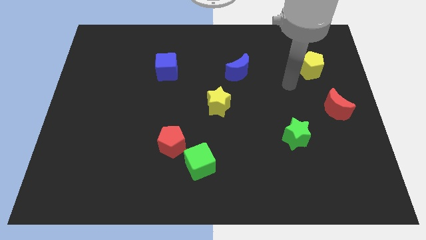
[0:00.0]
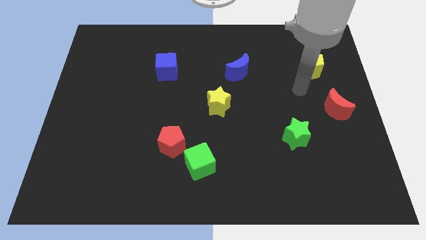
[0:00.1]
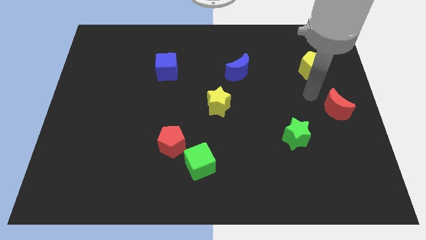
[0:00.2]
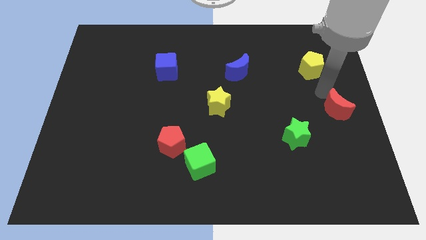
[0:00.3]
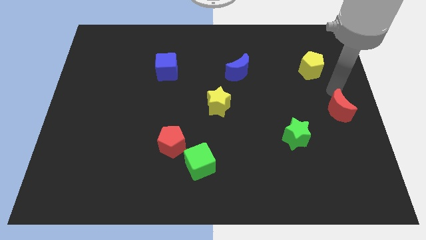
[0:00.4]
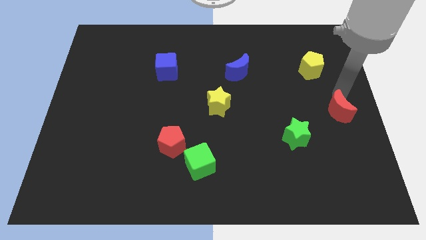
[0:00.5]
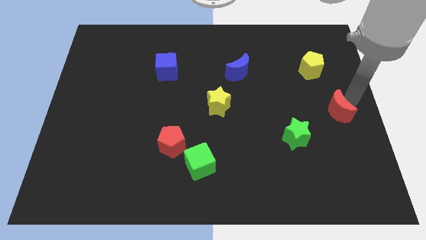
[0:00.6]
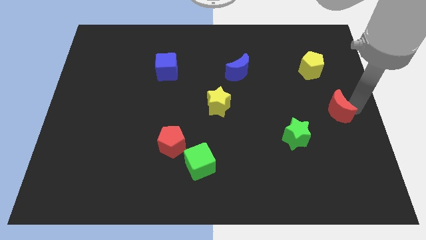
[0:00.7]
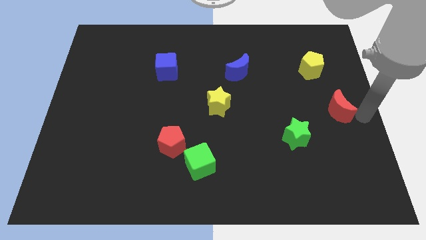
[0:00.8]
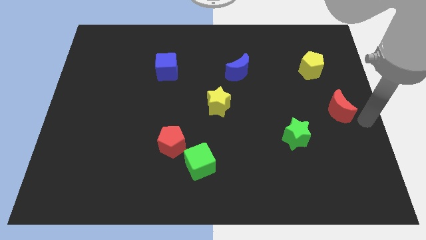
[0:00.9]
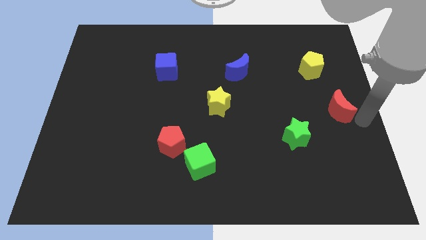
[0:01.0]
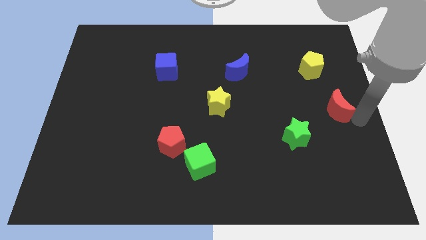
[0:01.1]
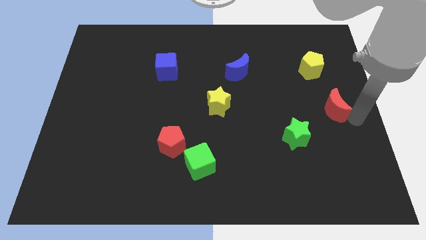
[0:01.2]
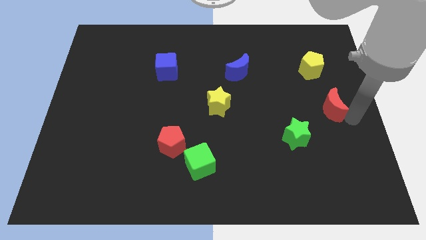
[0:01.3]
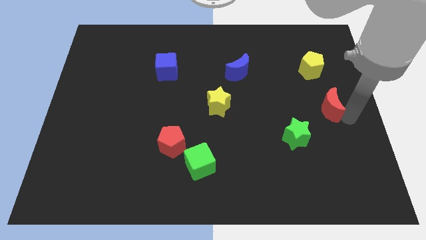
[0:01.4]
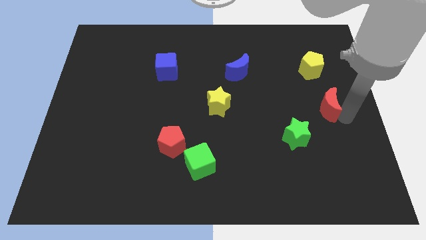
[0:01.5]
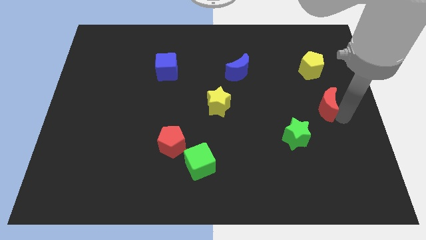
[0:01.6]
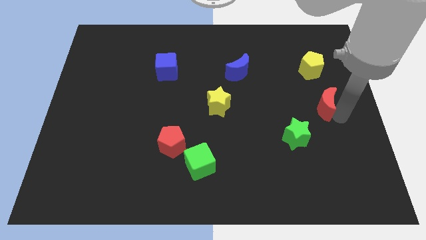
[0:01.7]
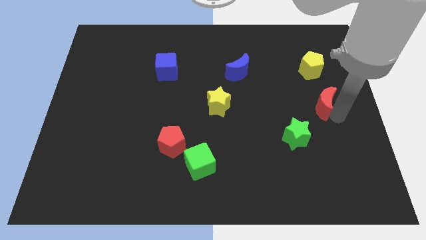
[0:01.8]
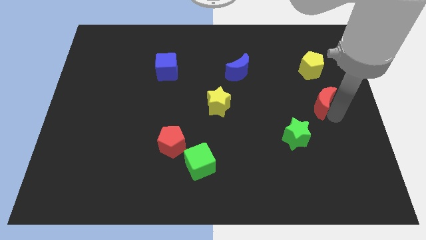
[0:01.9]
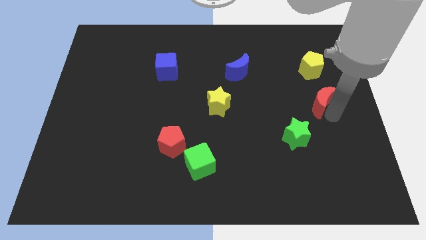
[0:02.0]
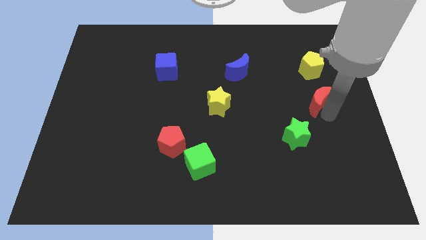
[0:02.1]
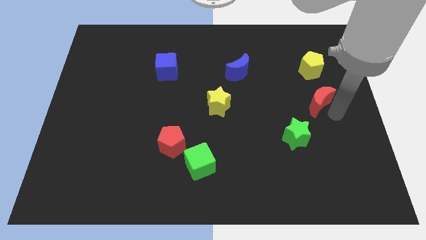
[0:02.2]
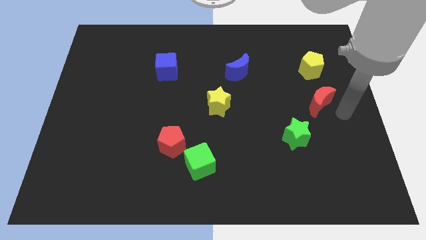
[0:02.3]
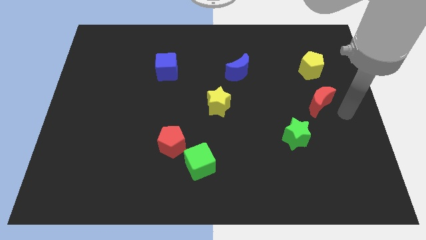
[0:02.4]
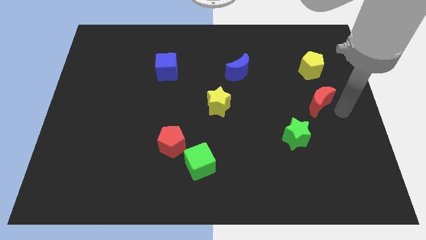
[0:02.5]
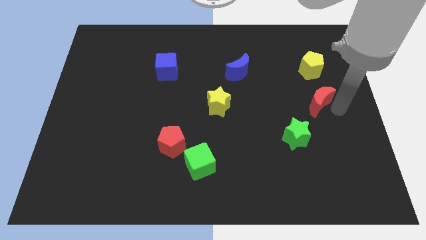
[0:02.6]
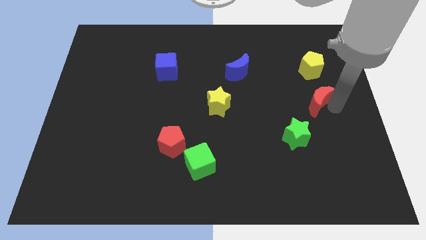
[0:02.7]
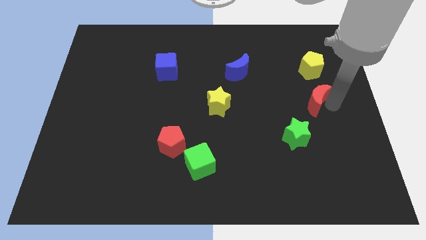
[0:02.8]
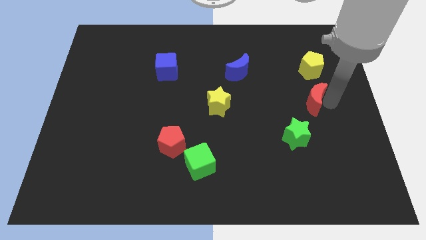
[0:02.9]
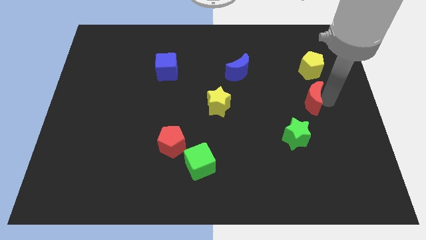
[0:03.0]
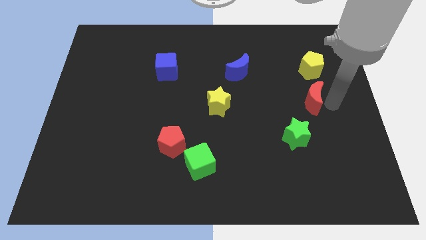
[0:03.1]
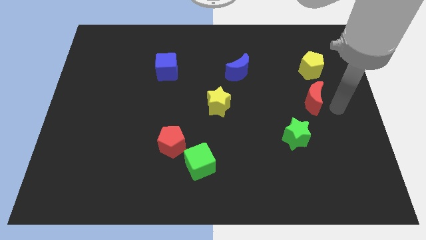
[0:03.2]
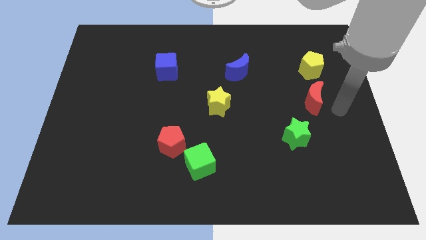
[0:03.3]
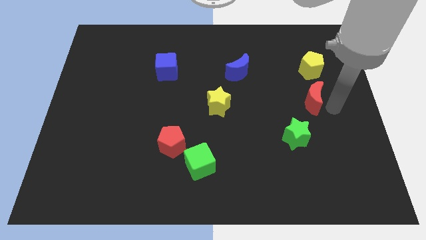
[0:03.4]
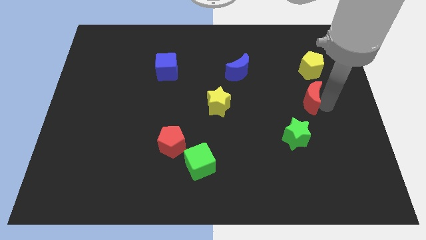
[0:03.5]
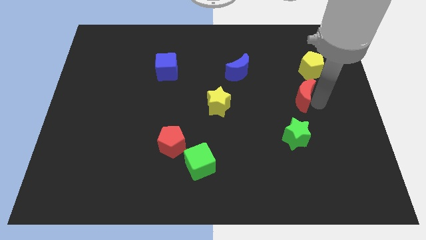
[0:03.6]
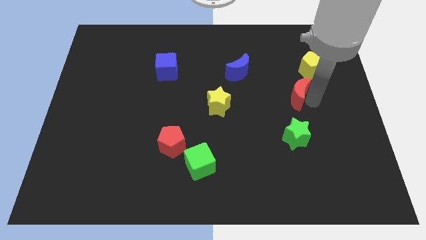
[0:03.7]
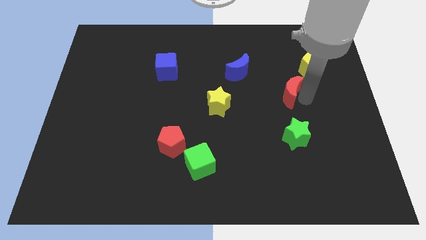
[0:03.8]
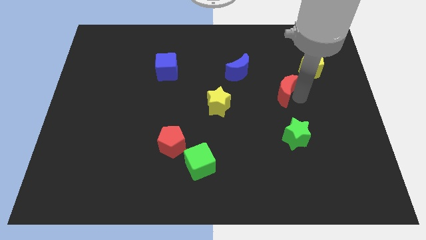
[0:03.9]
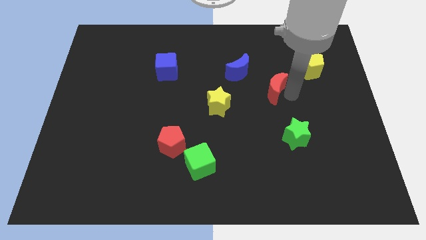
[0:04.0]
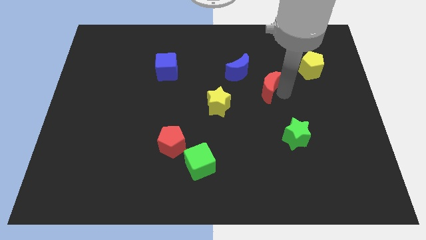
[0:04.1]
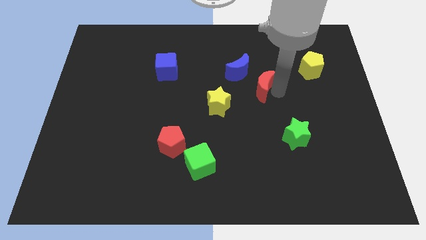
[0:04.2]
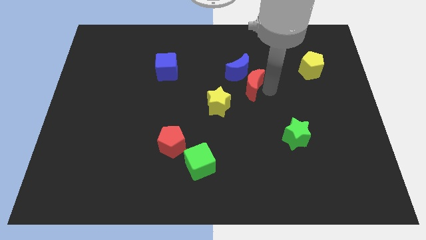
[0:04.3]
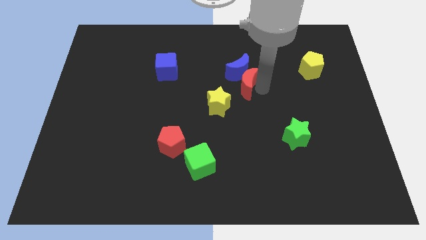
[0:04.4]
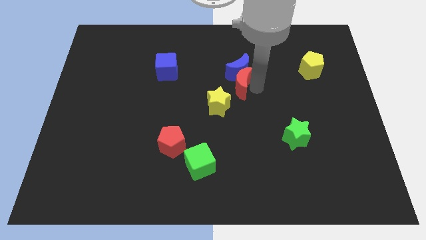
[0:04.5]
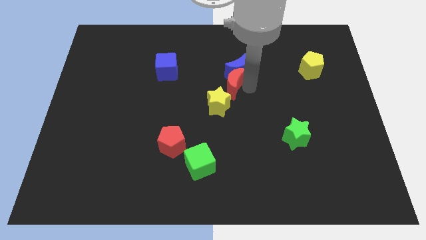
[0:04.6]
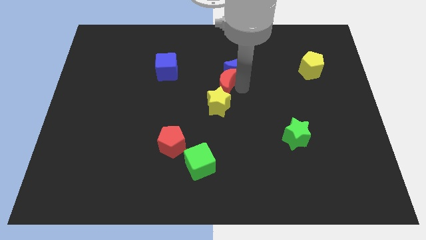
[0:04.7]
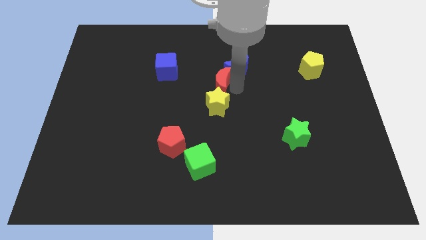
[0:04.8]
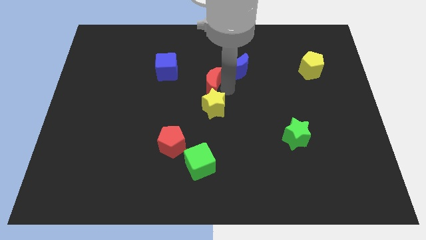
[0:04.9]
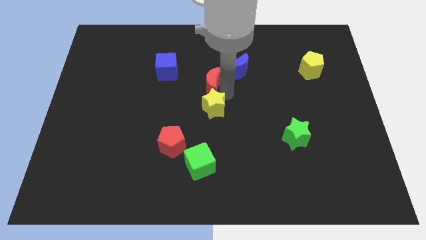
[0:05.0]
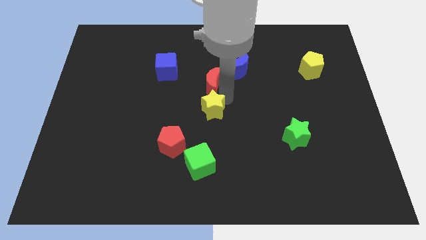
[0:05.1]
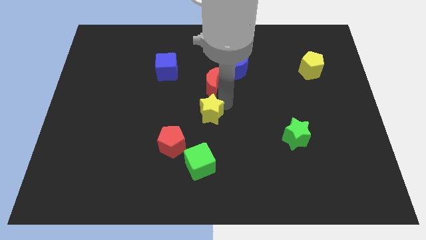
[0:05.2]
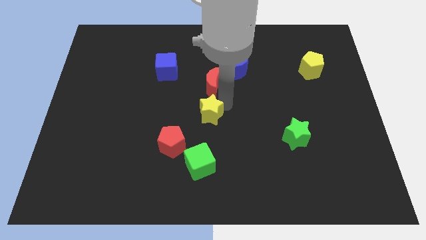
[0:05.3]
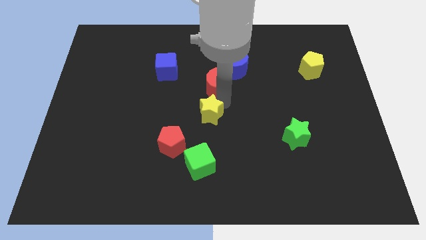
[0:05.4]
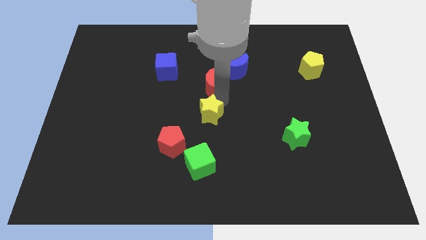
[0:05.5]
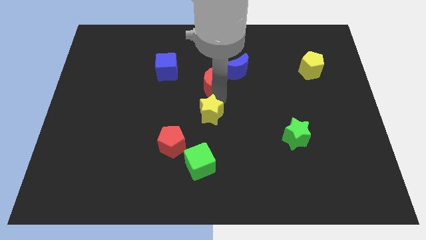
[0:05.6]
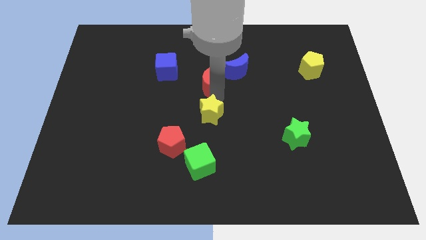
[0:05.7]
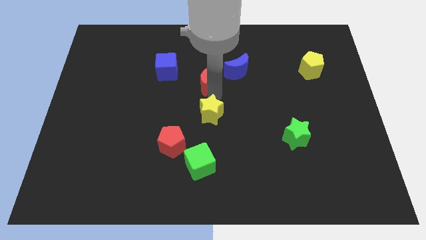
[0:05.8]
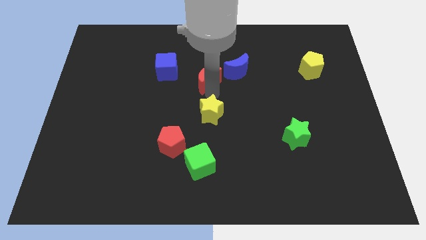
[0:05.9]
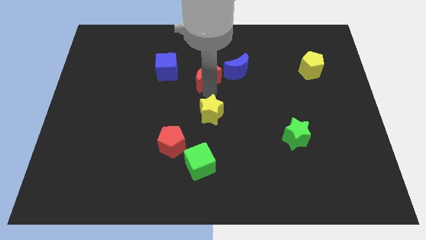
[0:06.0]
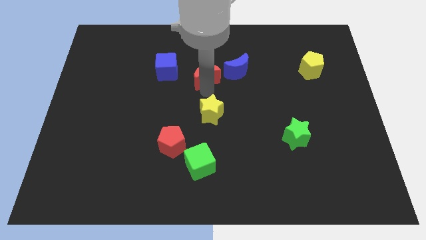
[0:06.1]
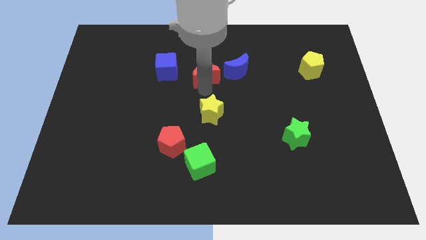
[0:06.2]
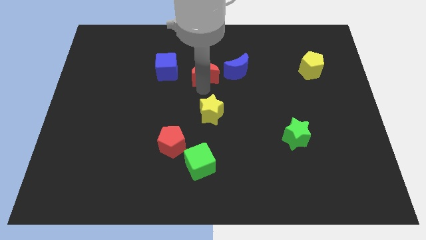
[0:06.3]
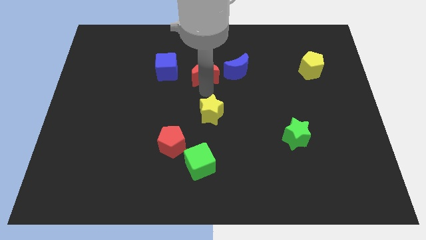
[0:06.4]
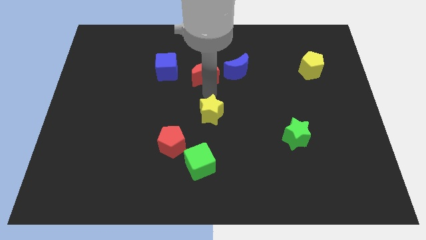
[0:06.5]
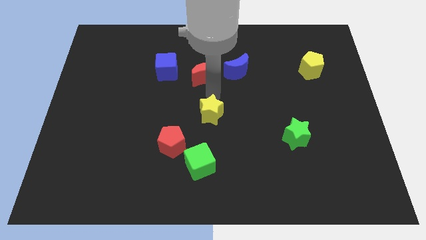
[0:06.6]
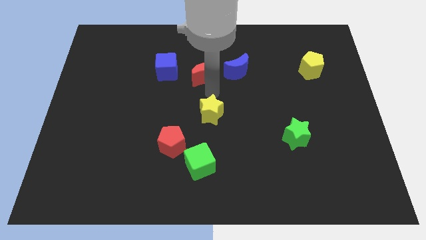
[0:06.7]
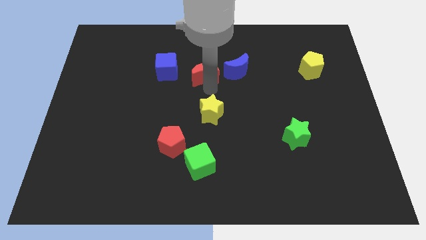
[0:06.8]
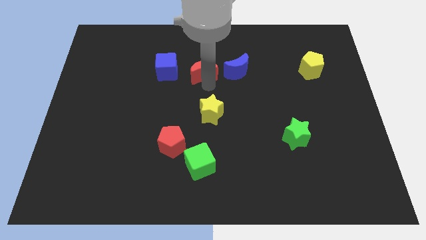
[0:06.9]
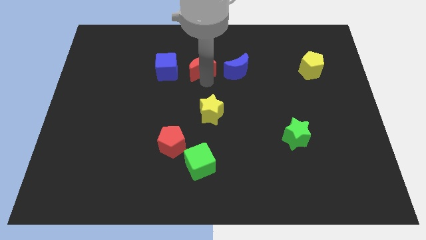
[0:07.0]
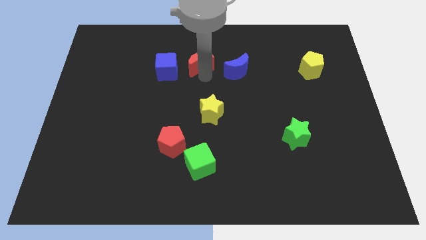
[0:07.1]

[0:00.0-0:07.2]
push the red moon diagonally up and to the right of the blue cube

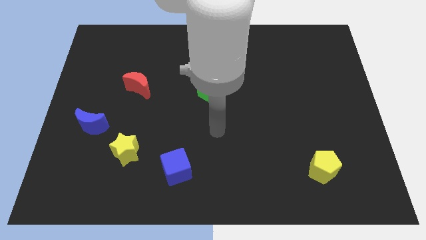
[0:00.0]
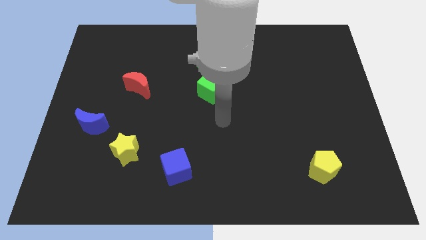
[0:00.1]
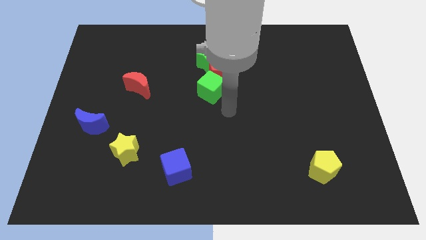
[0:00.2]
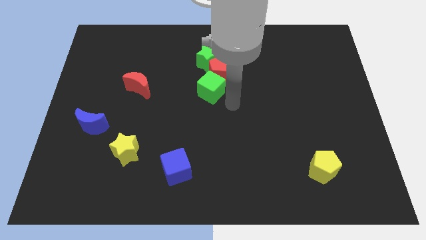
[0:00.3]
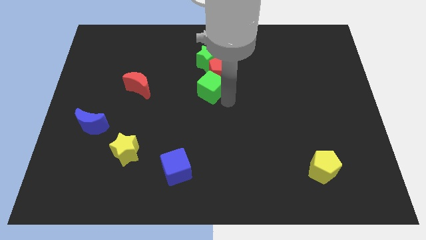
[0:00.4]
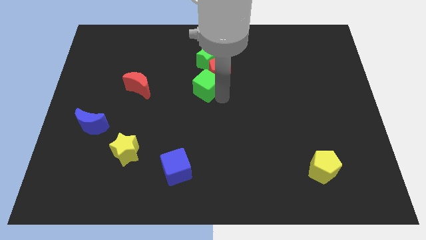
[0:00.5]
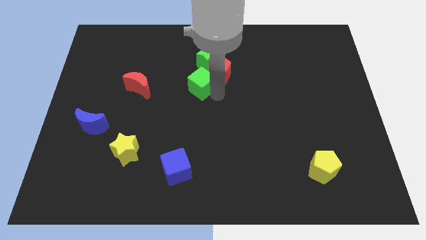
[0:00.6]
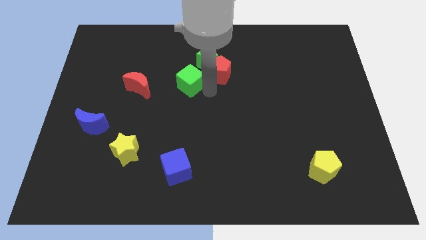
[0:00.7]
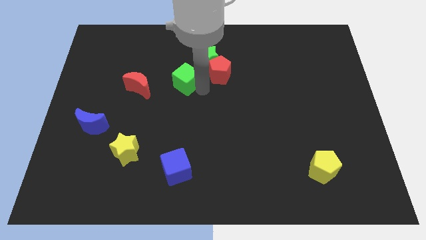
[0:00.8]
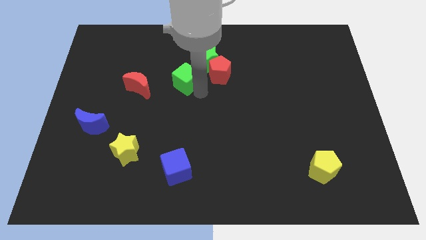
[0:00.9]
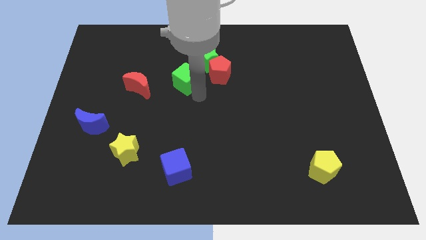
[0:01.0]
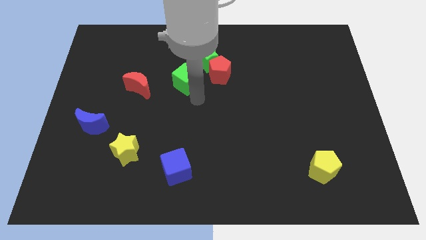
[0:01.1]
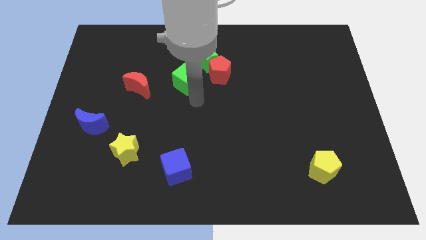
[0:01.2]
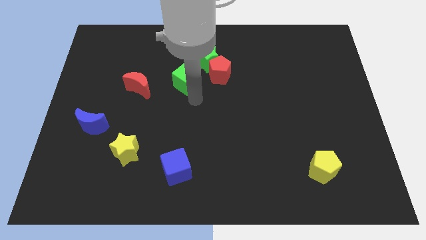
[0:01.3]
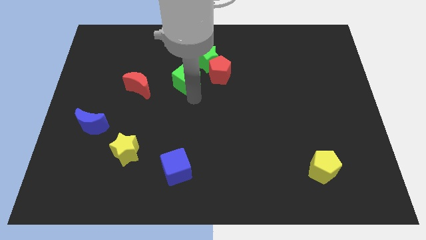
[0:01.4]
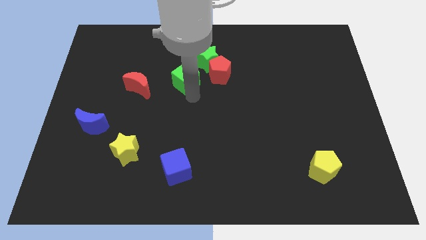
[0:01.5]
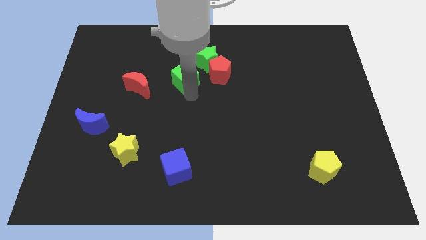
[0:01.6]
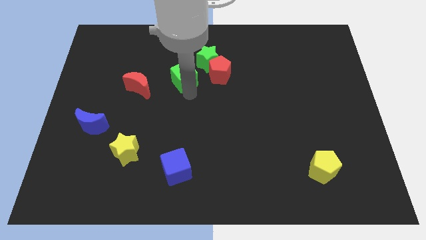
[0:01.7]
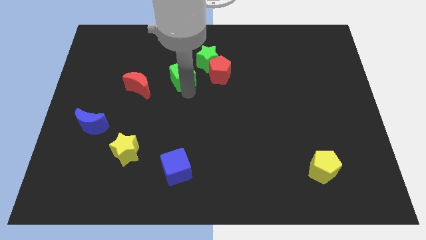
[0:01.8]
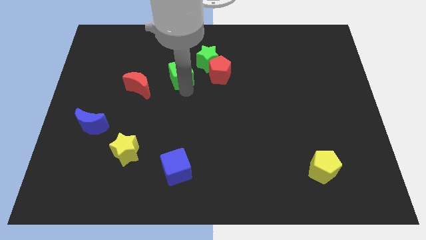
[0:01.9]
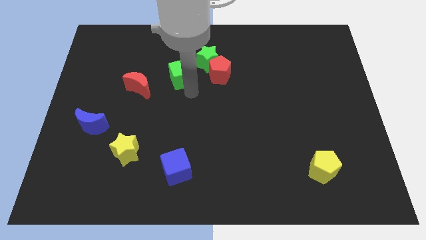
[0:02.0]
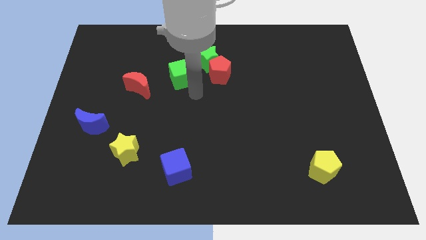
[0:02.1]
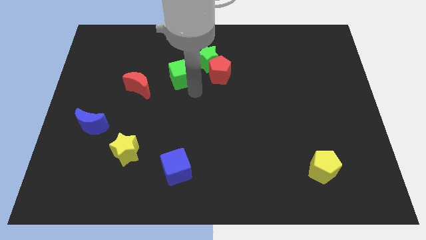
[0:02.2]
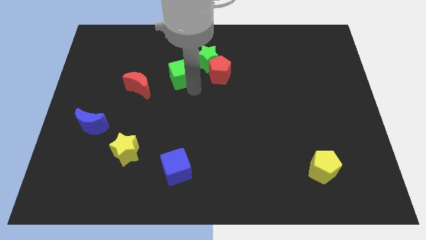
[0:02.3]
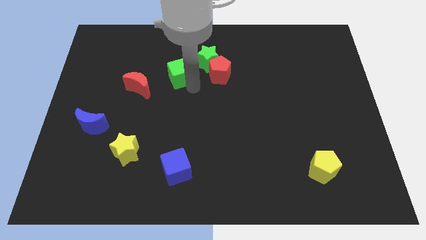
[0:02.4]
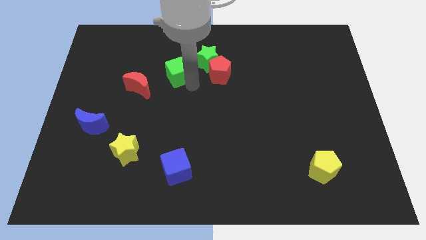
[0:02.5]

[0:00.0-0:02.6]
put the green cube to the left side of the green star
